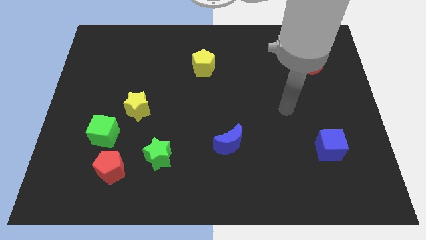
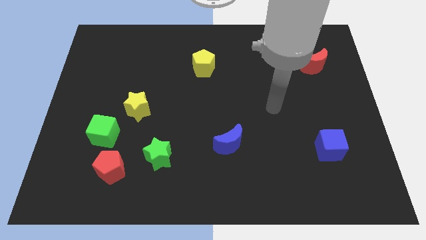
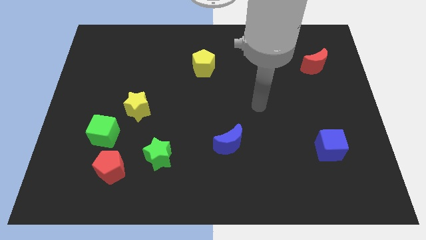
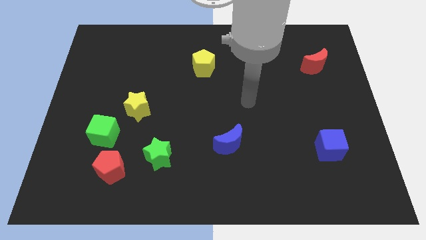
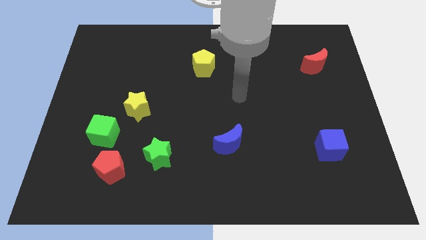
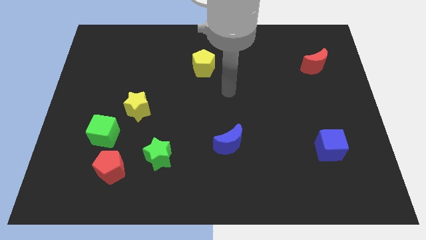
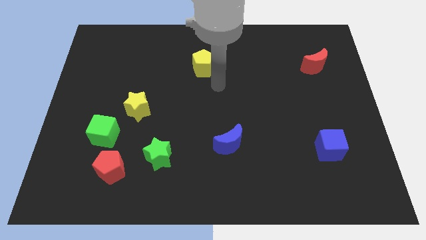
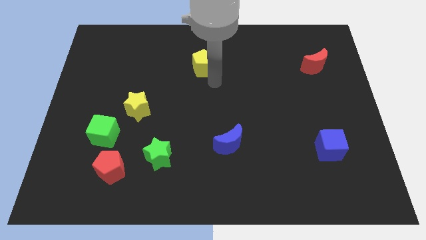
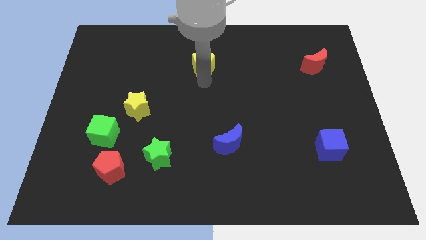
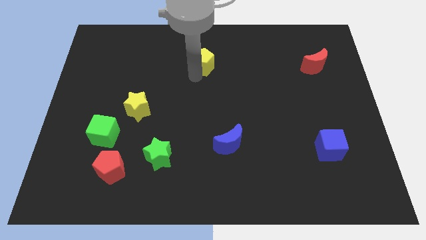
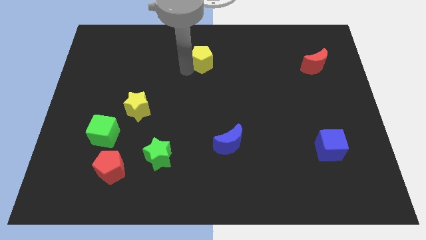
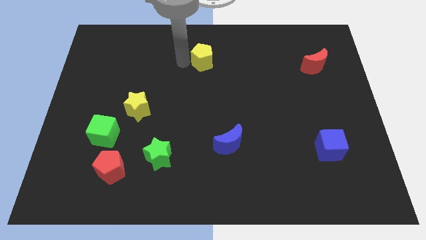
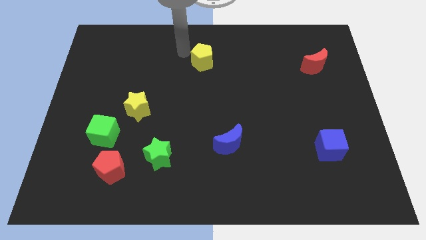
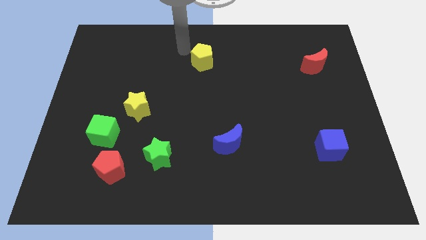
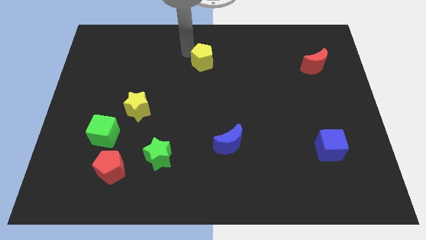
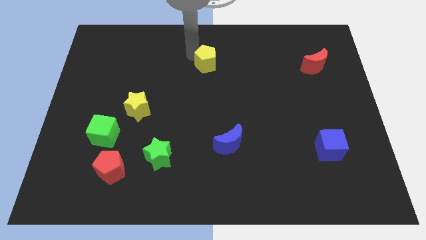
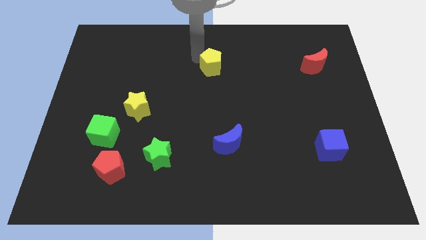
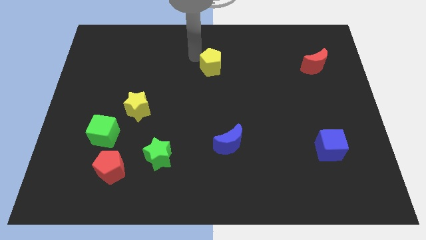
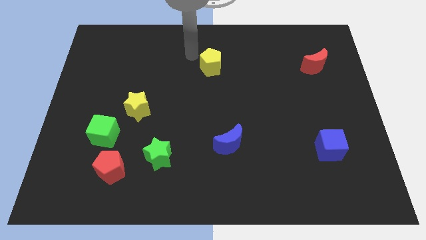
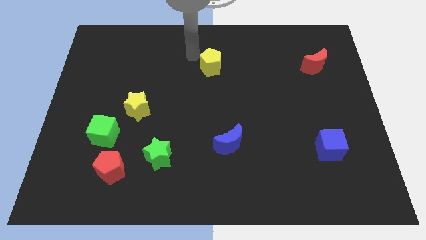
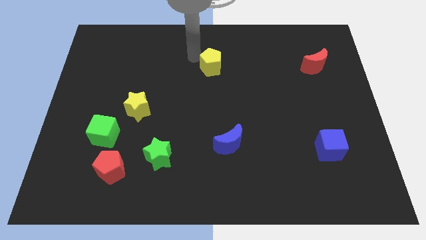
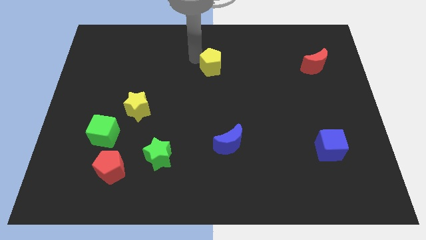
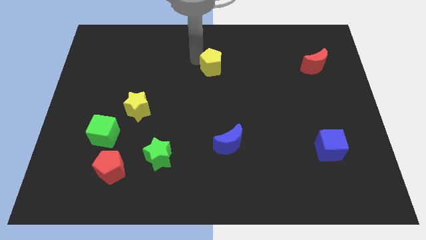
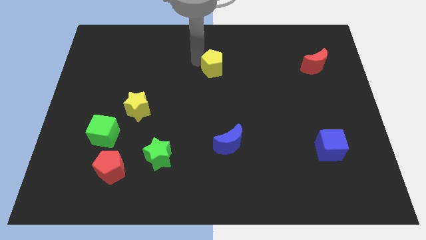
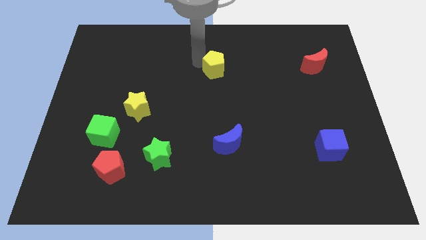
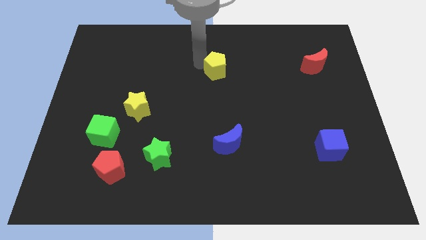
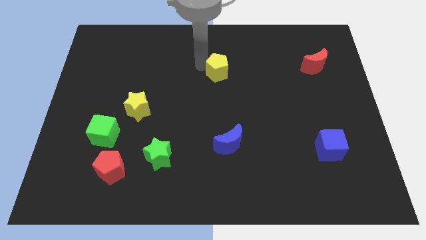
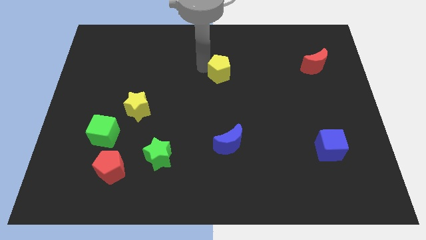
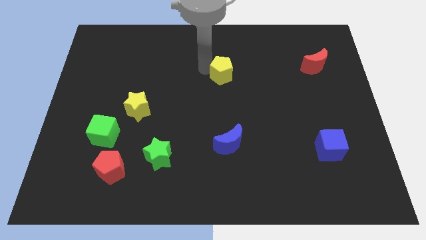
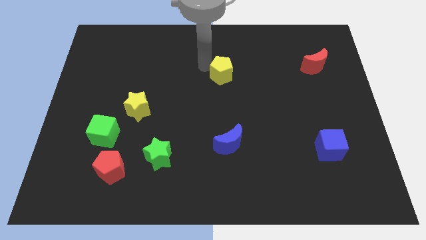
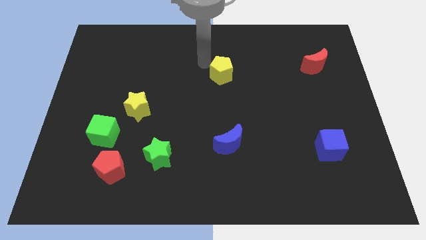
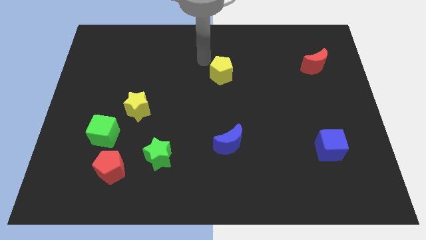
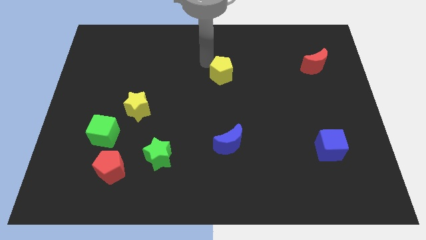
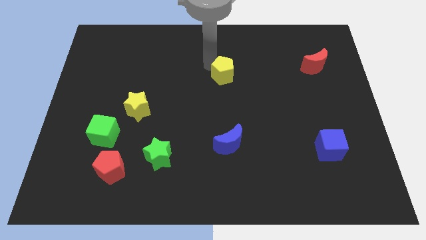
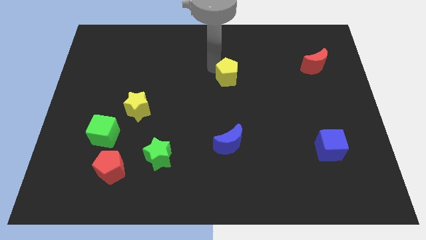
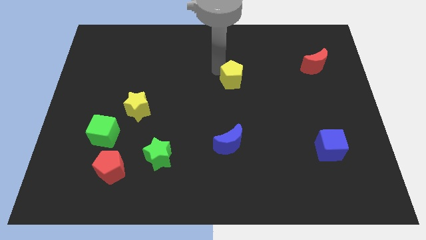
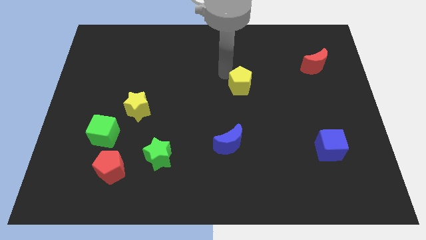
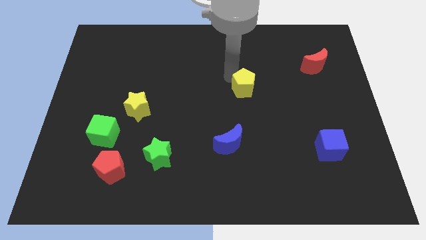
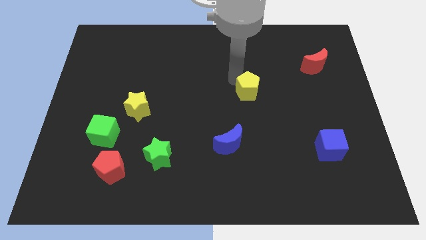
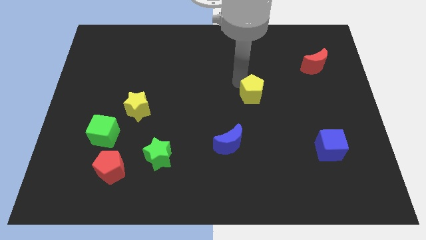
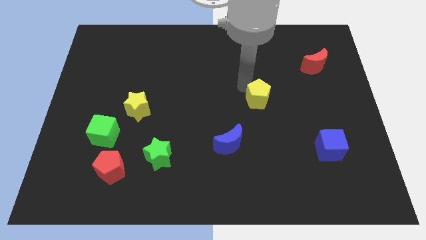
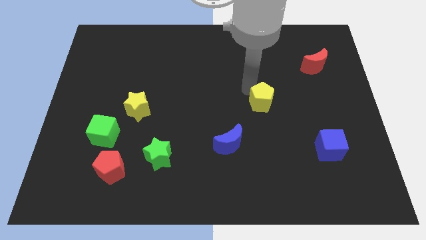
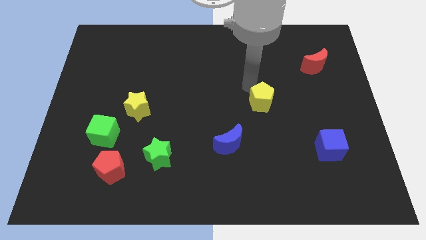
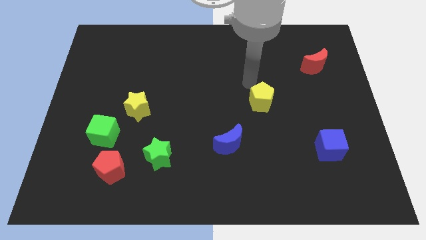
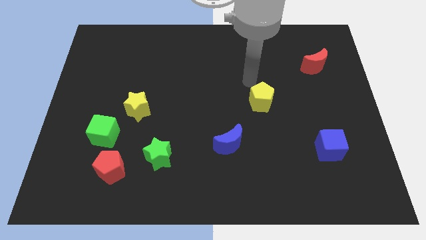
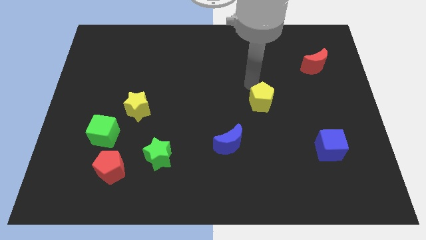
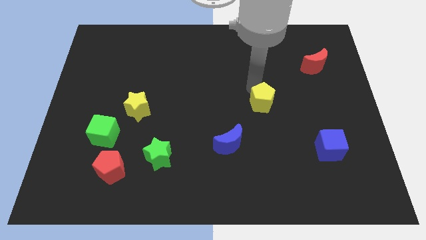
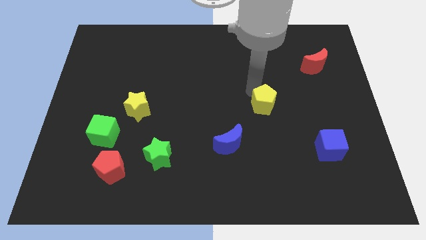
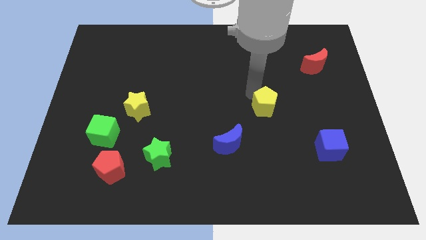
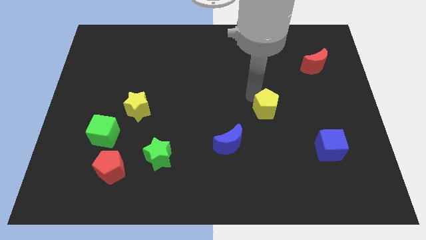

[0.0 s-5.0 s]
move the yellow pentagon downwards and then to the right

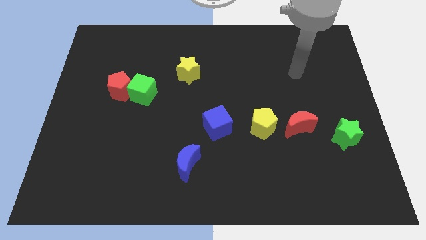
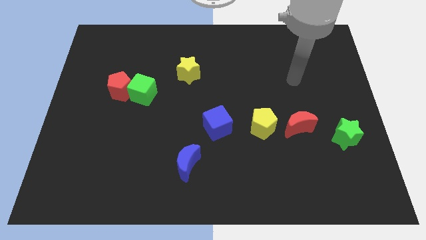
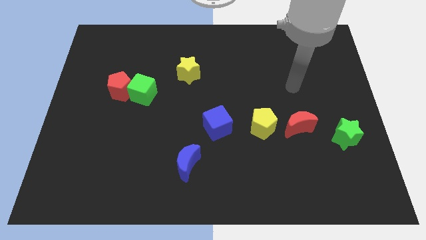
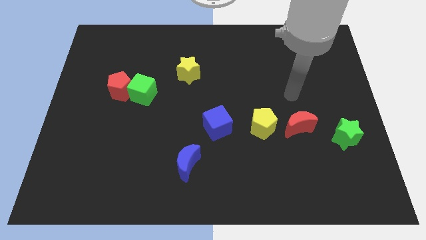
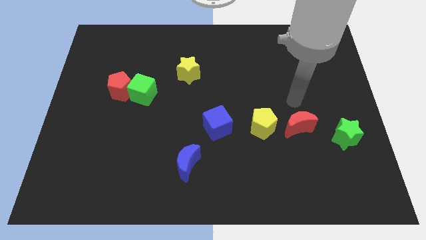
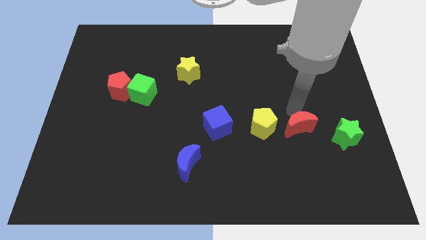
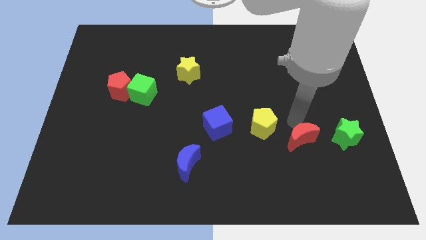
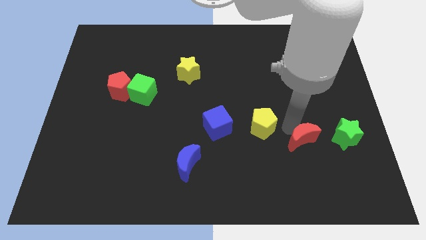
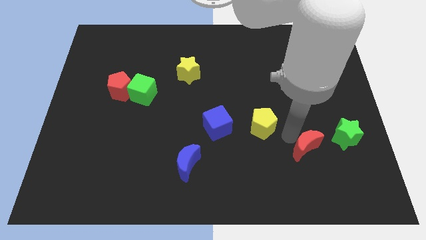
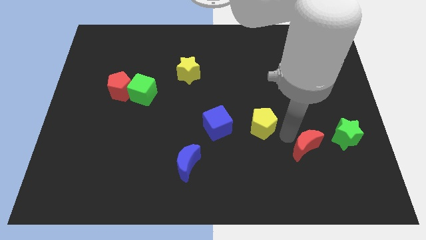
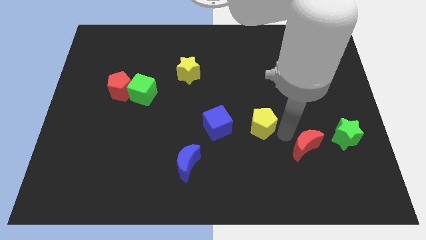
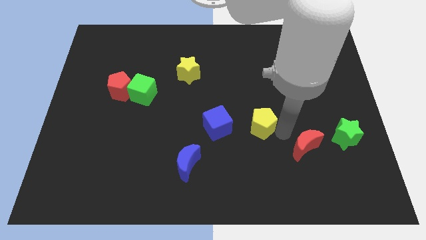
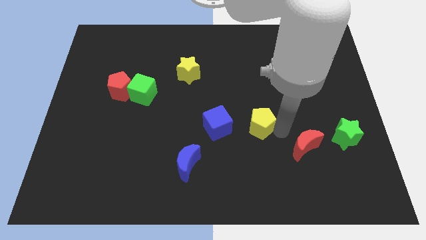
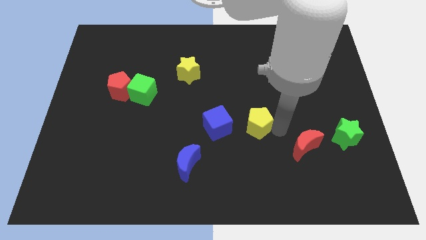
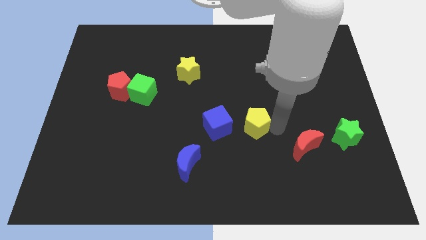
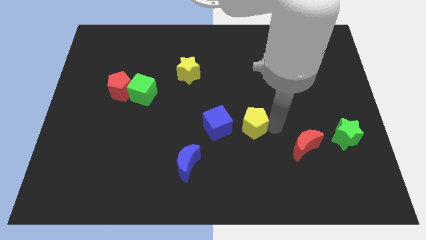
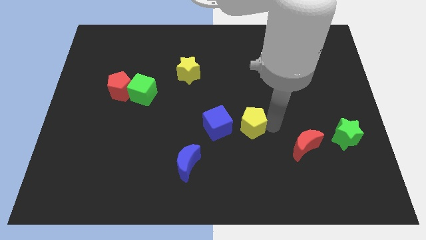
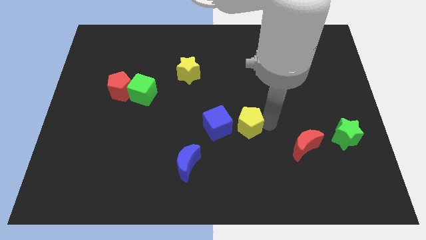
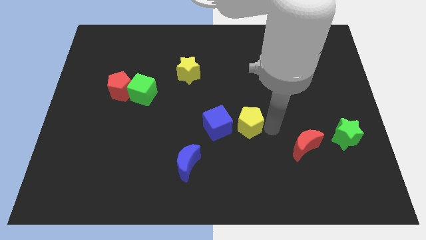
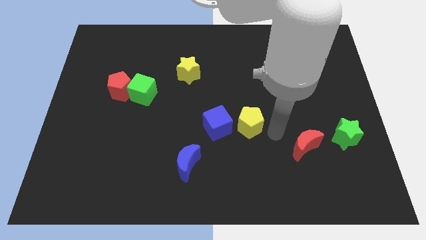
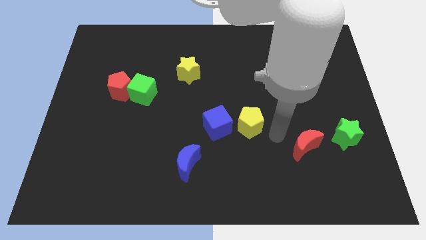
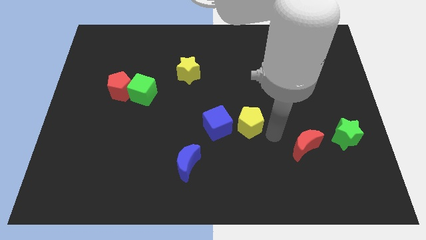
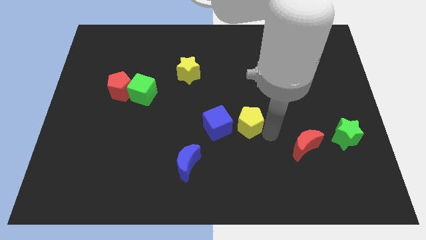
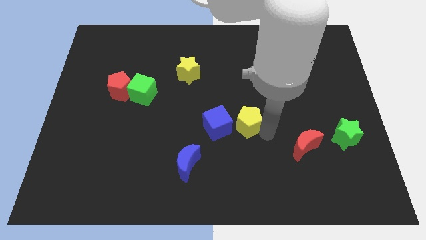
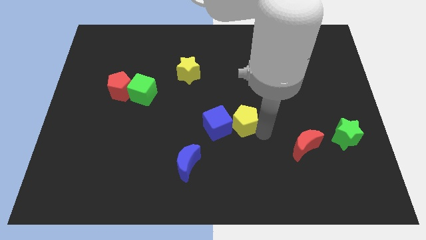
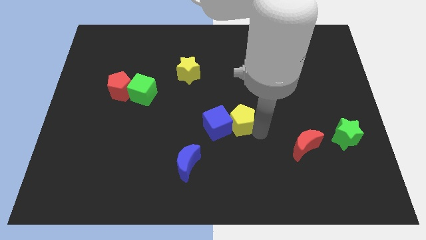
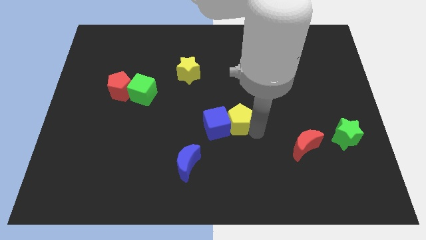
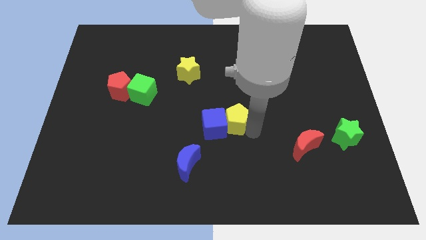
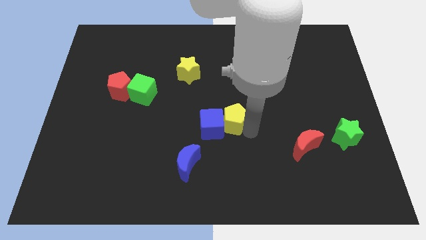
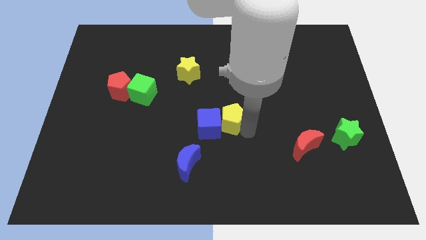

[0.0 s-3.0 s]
slightly push the yellow pentagon left
